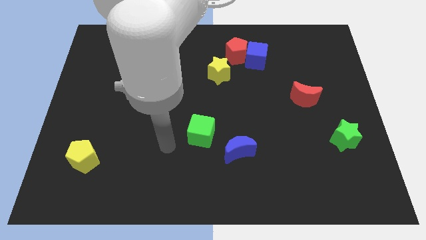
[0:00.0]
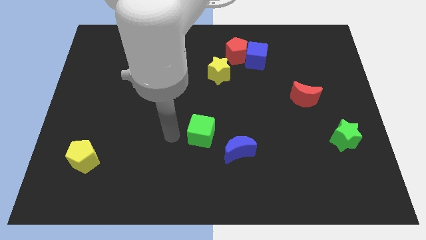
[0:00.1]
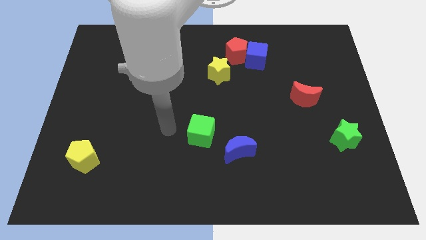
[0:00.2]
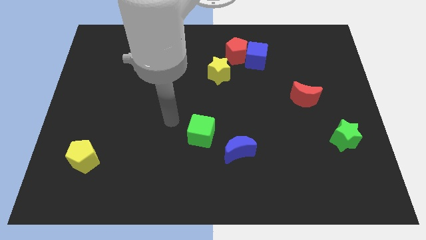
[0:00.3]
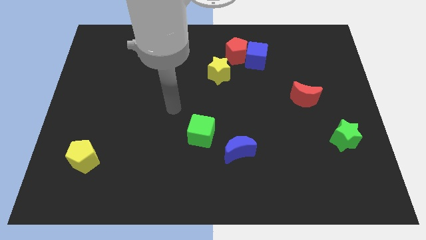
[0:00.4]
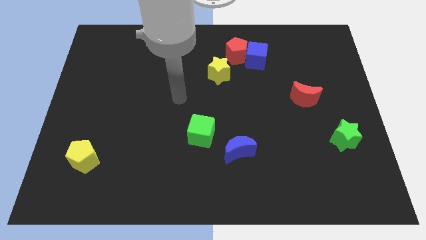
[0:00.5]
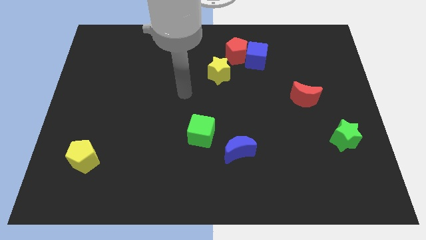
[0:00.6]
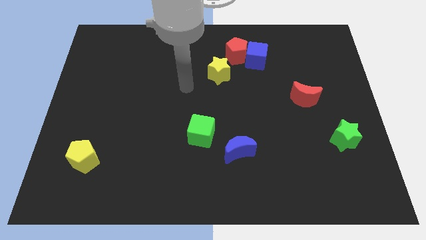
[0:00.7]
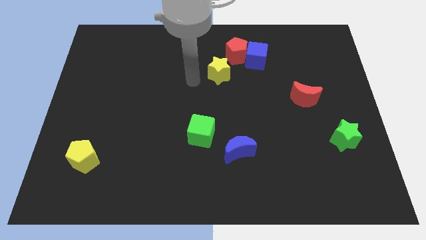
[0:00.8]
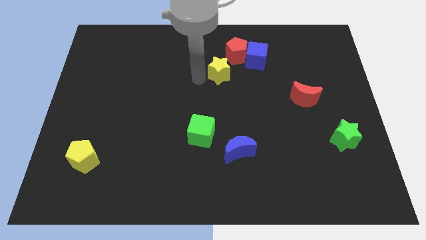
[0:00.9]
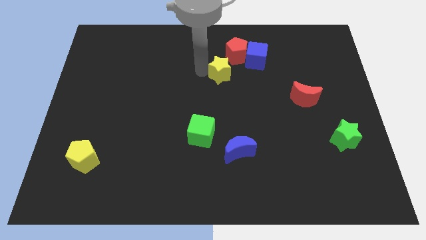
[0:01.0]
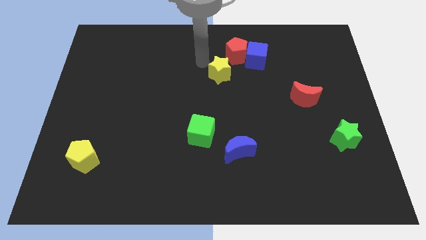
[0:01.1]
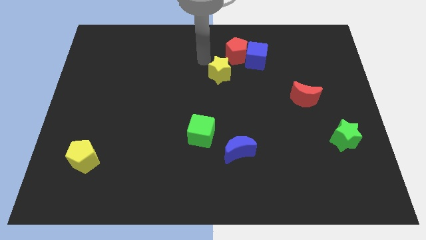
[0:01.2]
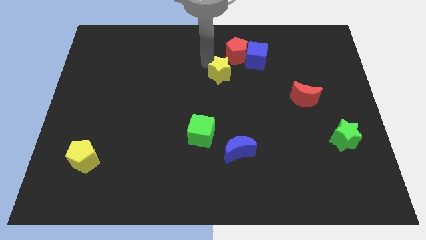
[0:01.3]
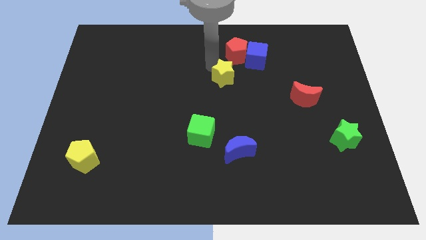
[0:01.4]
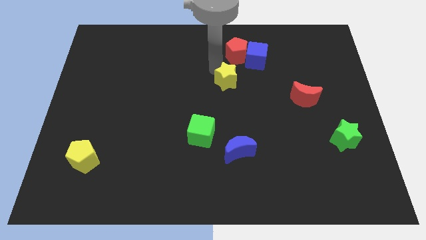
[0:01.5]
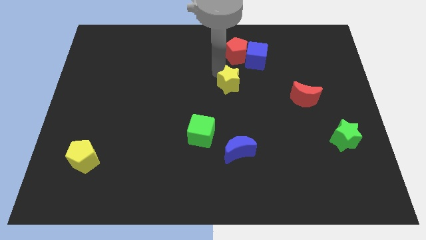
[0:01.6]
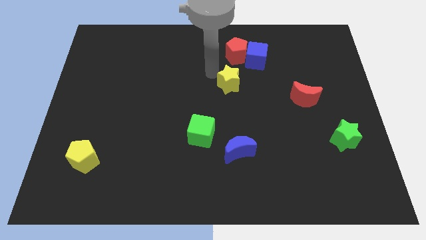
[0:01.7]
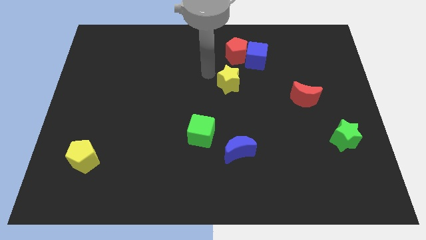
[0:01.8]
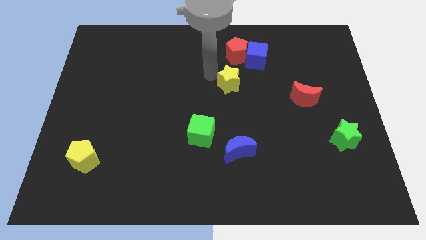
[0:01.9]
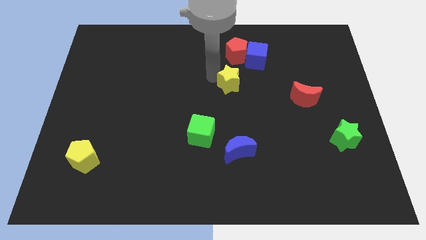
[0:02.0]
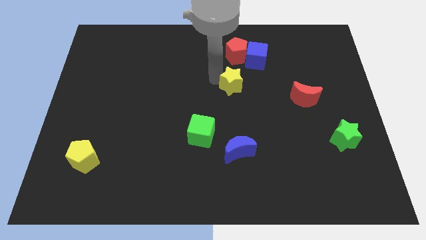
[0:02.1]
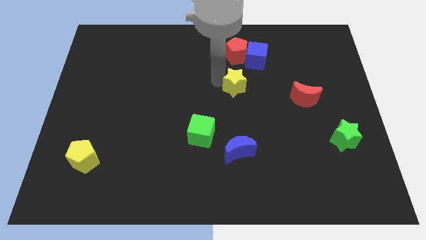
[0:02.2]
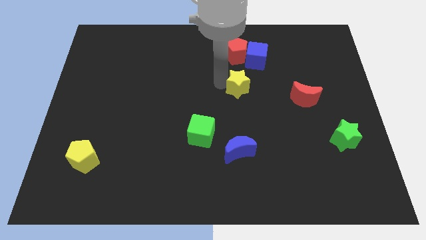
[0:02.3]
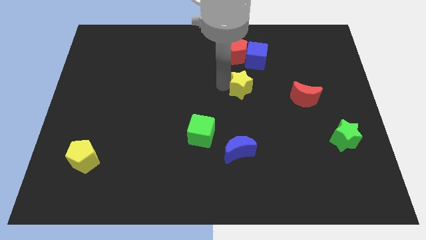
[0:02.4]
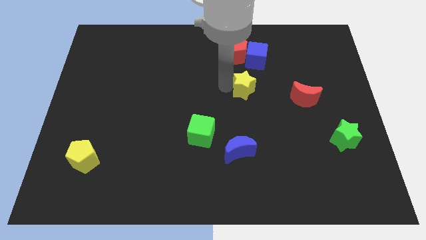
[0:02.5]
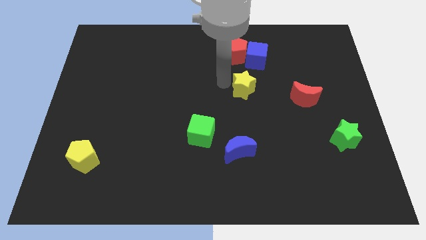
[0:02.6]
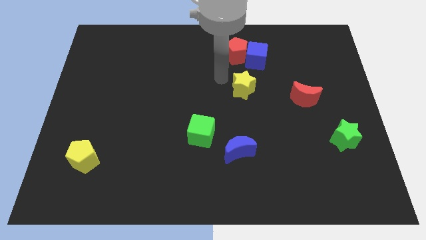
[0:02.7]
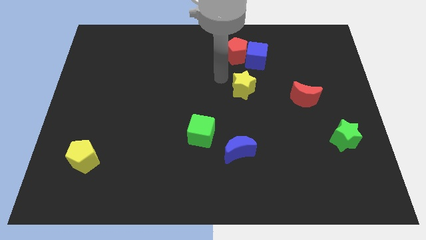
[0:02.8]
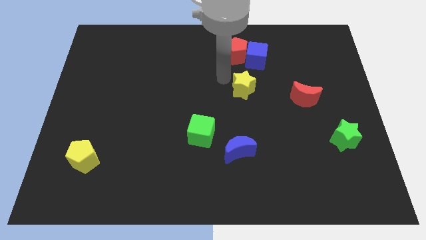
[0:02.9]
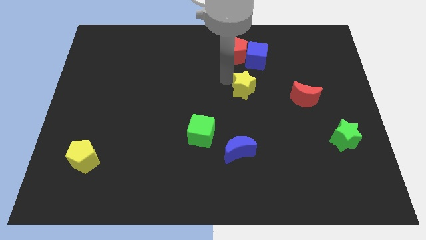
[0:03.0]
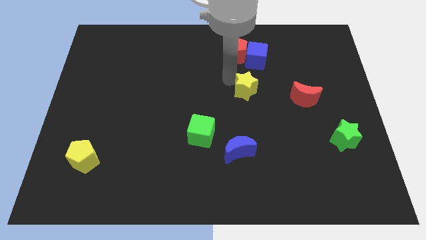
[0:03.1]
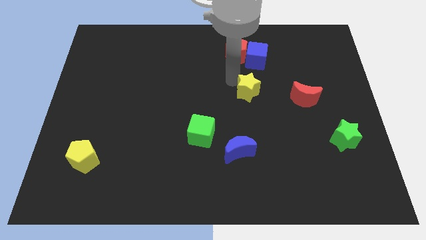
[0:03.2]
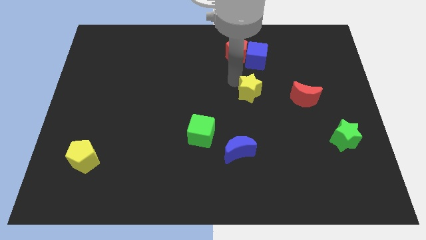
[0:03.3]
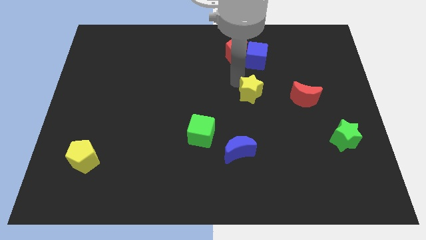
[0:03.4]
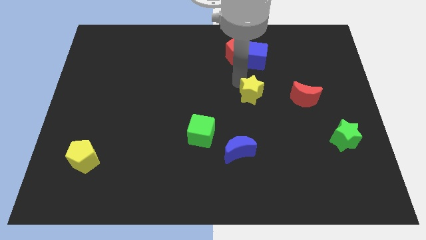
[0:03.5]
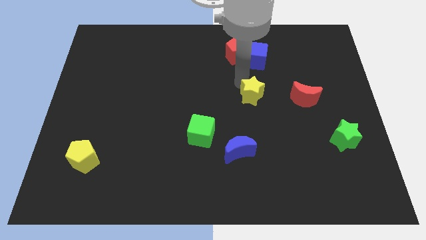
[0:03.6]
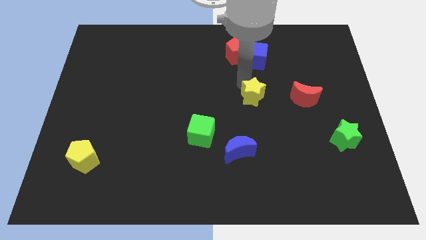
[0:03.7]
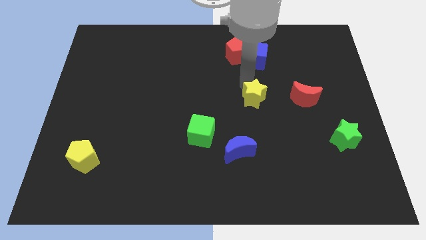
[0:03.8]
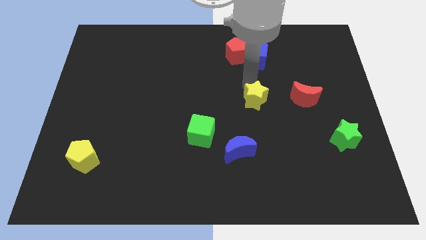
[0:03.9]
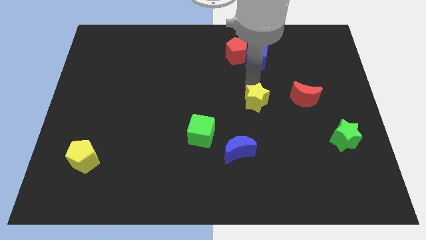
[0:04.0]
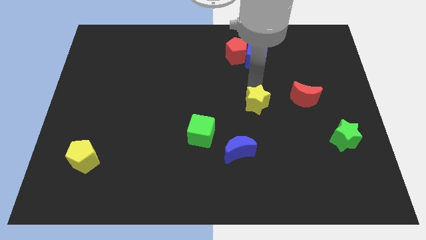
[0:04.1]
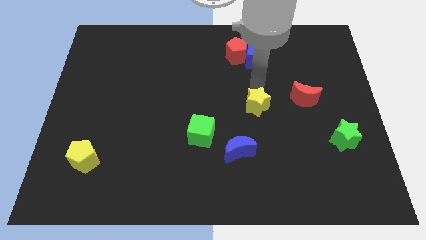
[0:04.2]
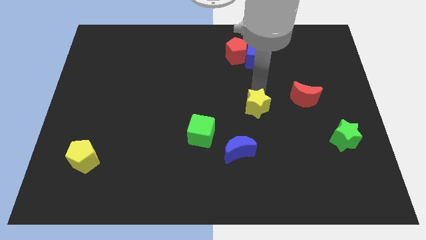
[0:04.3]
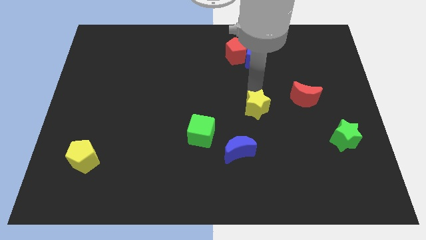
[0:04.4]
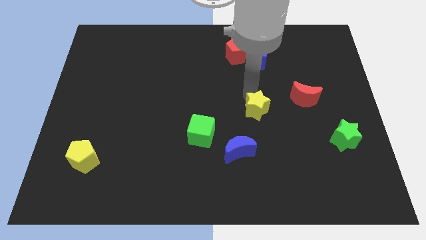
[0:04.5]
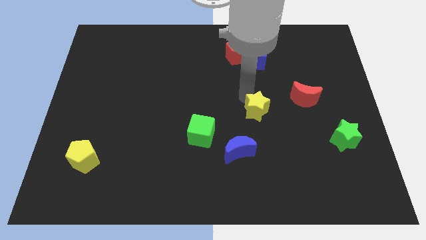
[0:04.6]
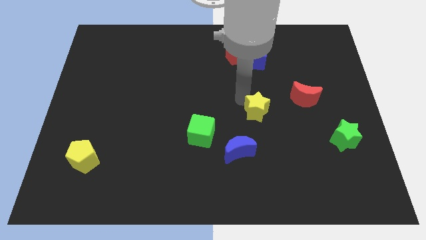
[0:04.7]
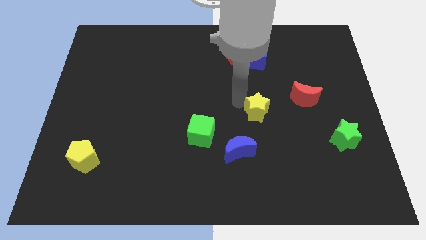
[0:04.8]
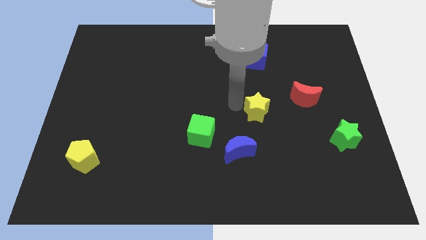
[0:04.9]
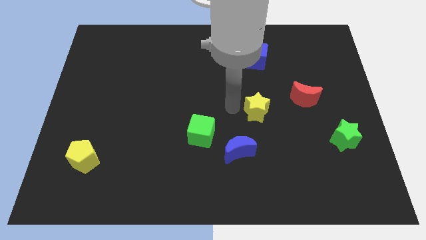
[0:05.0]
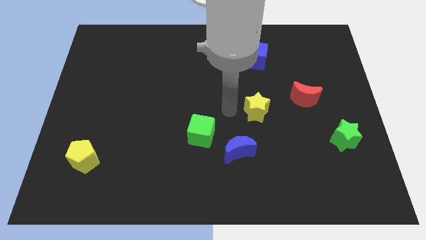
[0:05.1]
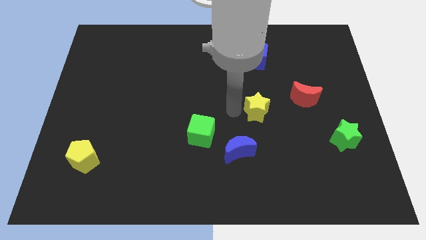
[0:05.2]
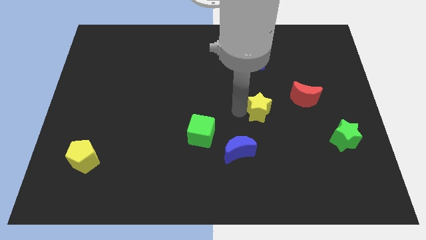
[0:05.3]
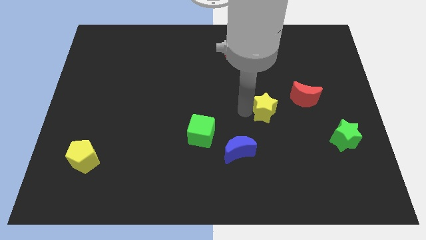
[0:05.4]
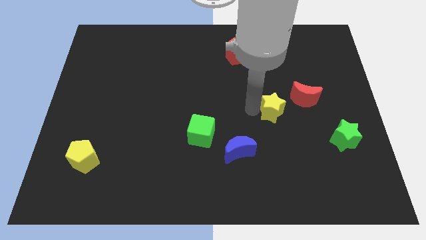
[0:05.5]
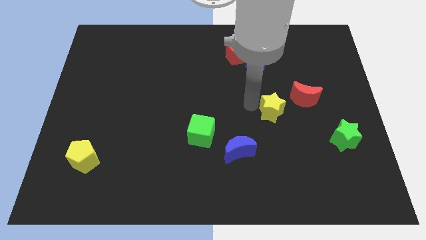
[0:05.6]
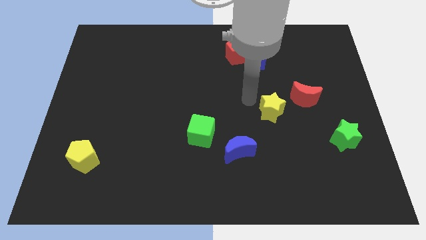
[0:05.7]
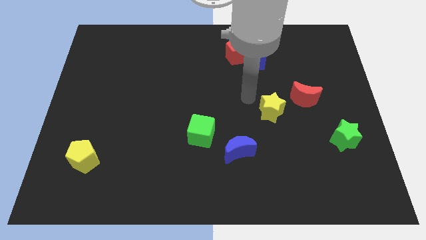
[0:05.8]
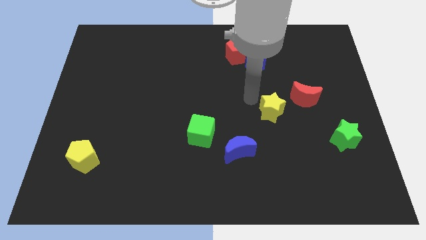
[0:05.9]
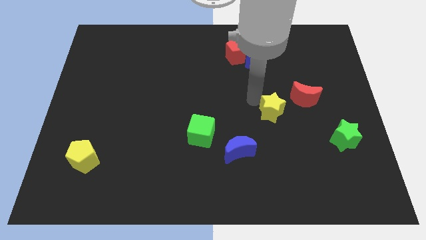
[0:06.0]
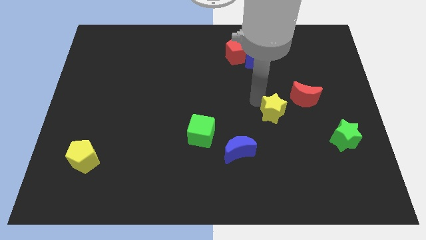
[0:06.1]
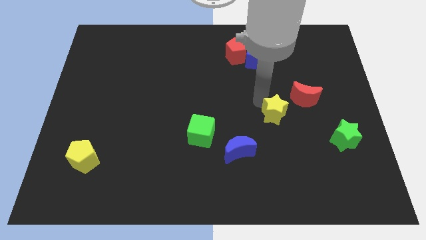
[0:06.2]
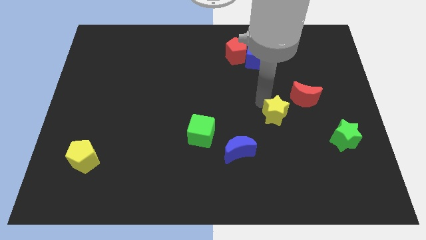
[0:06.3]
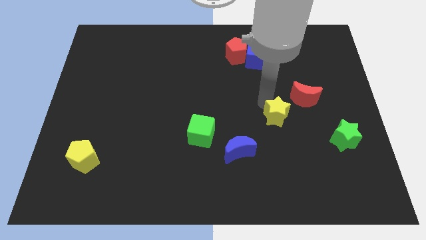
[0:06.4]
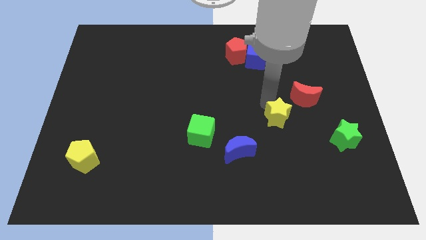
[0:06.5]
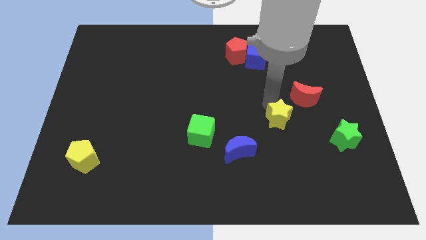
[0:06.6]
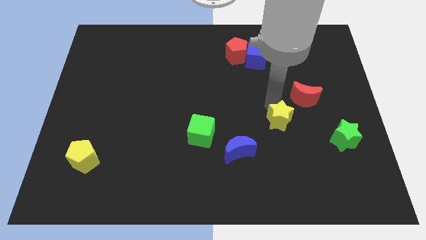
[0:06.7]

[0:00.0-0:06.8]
push the yellow star diagonally down and to the right

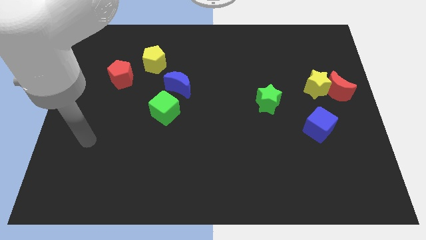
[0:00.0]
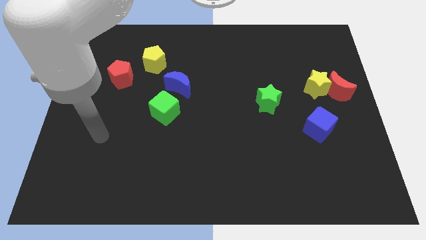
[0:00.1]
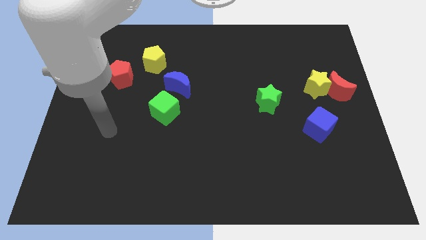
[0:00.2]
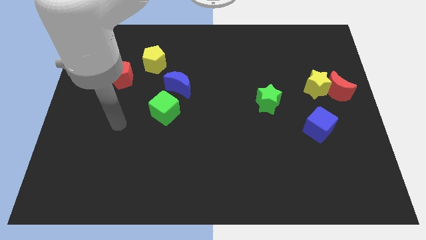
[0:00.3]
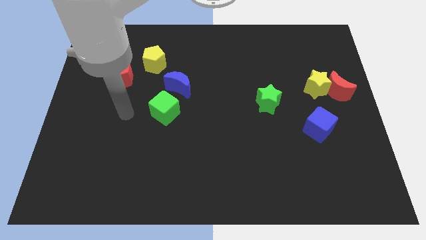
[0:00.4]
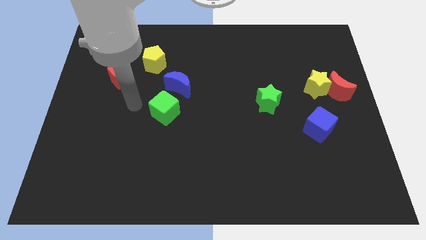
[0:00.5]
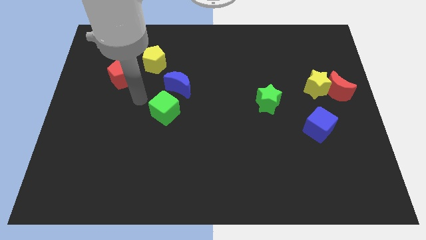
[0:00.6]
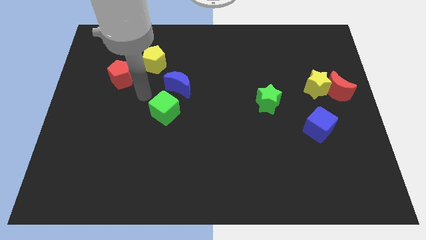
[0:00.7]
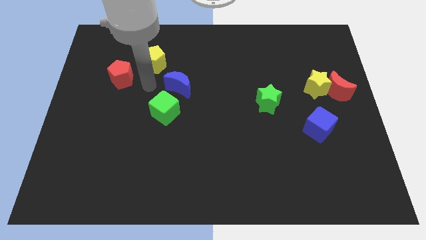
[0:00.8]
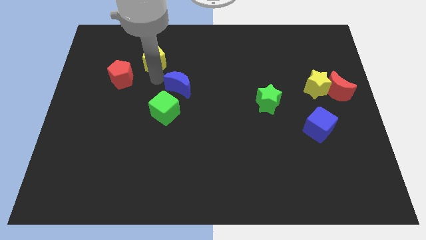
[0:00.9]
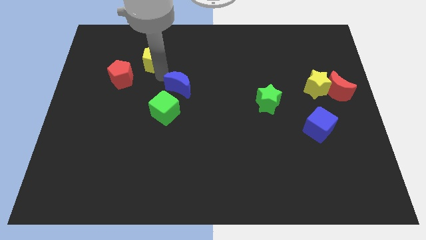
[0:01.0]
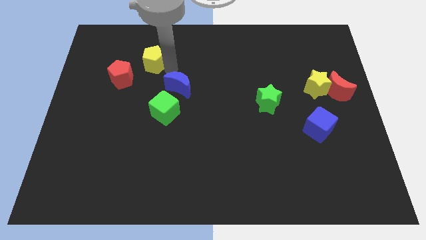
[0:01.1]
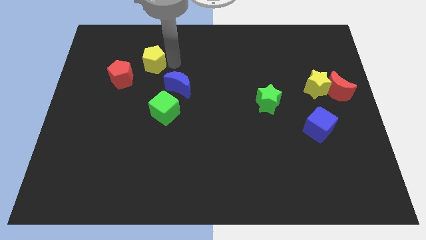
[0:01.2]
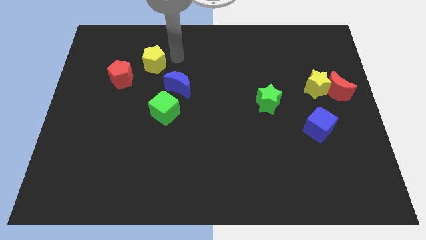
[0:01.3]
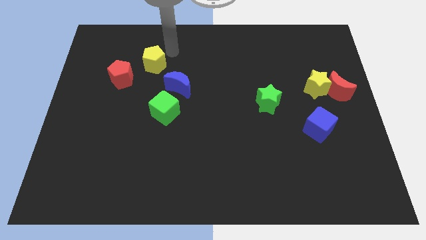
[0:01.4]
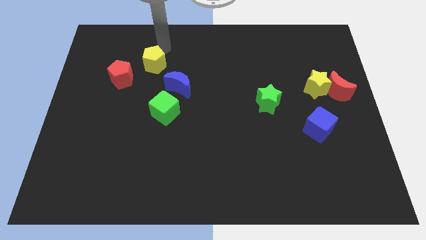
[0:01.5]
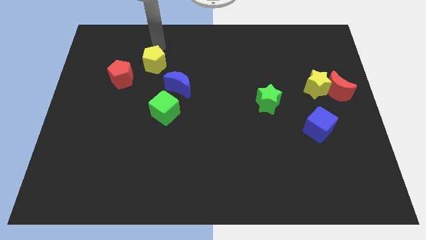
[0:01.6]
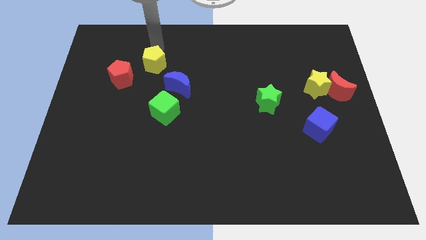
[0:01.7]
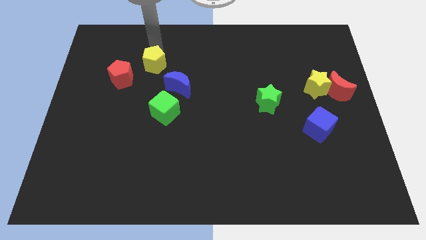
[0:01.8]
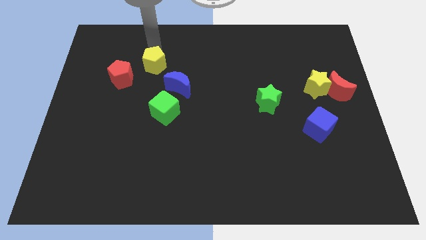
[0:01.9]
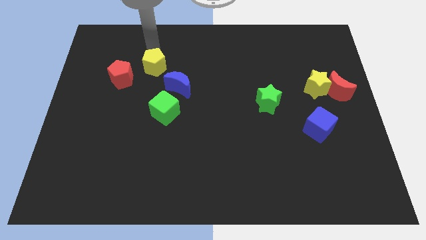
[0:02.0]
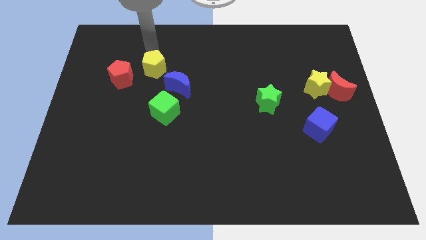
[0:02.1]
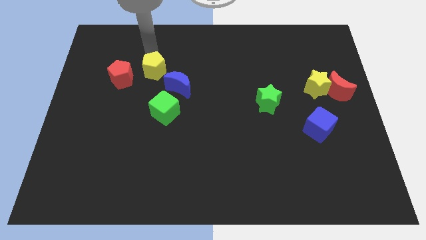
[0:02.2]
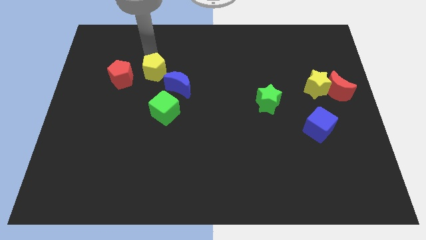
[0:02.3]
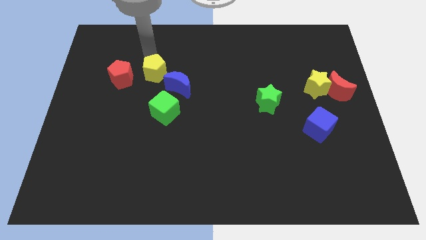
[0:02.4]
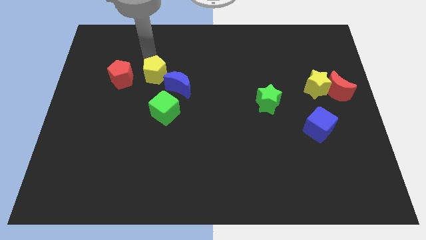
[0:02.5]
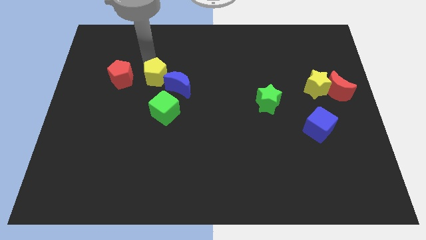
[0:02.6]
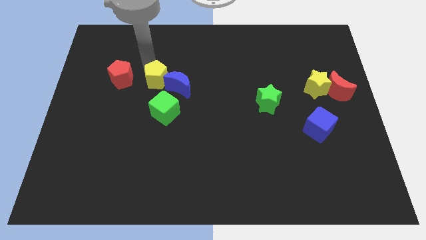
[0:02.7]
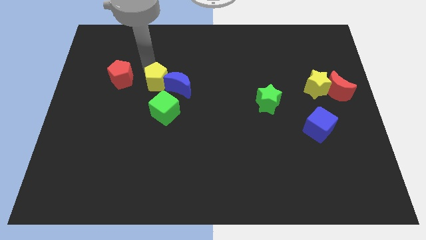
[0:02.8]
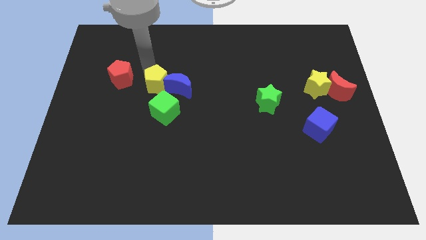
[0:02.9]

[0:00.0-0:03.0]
move the yellow pentagon a little down
